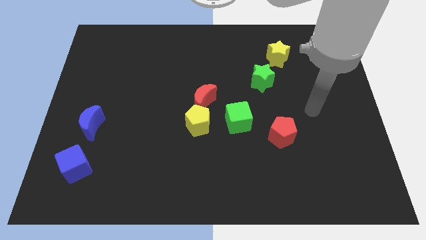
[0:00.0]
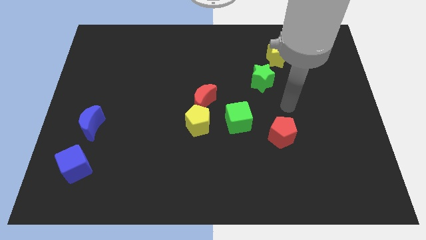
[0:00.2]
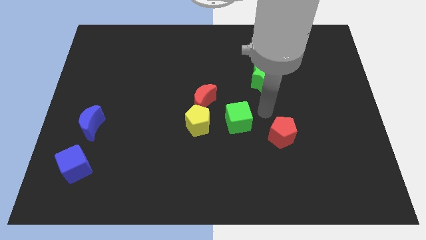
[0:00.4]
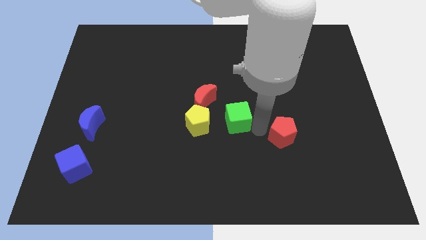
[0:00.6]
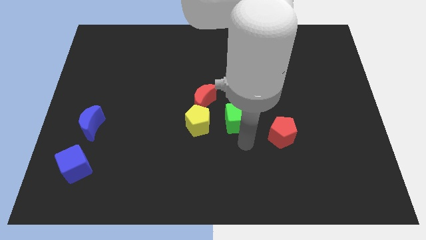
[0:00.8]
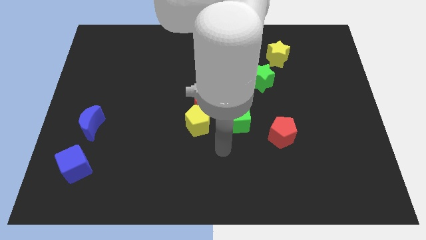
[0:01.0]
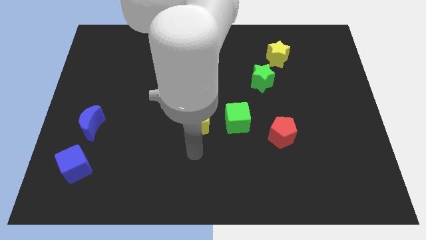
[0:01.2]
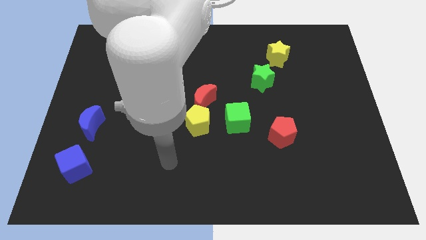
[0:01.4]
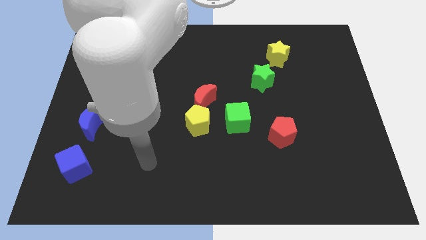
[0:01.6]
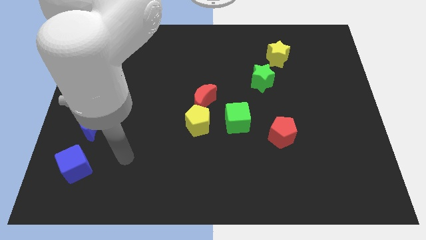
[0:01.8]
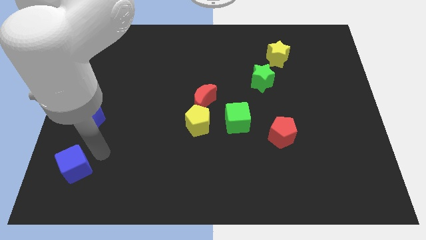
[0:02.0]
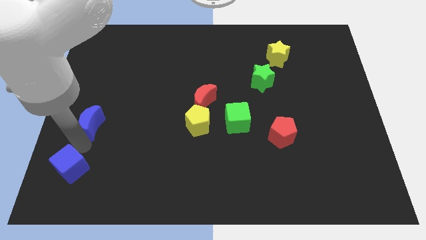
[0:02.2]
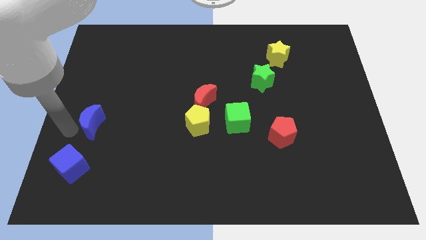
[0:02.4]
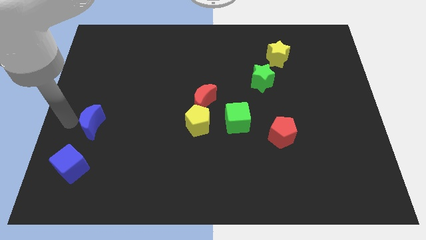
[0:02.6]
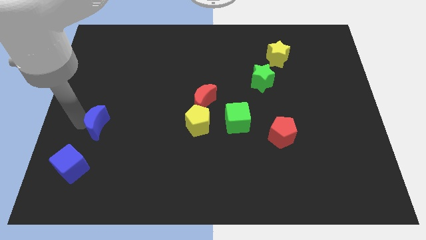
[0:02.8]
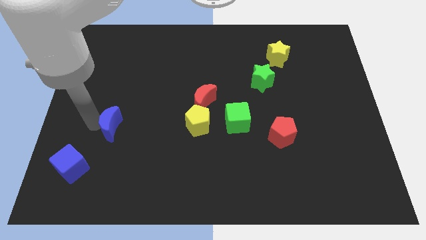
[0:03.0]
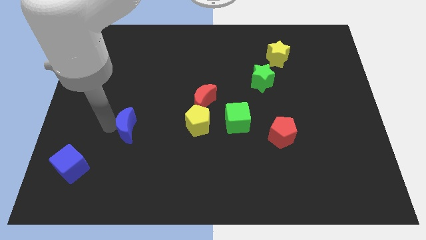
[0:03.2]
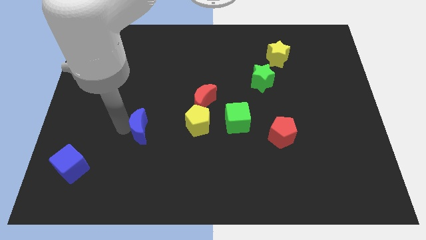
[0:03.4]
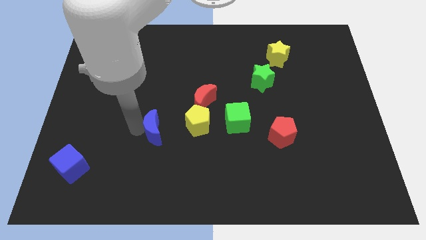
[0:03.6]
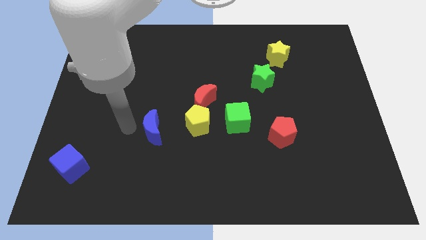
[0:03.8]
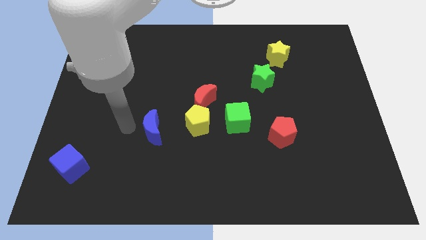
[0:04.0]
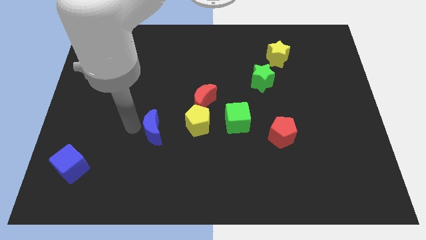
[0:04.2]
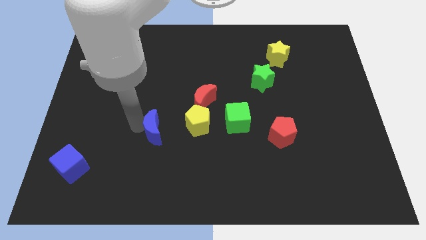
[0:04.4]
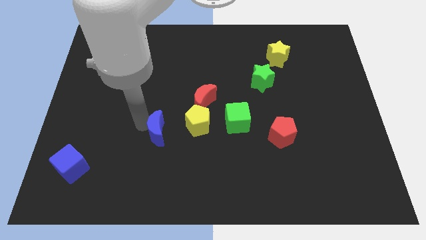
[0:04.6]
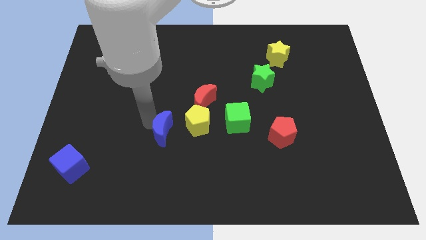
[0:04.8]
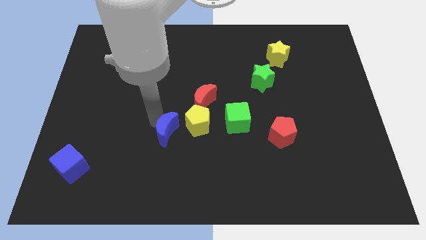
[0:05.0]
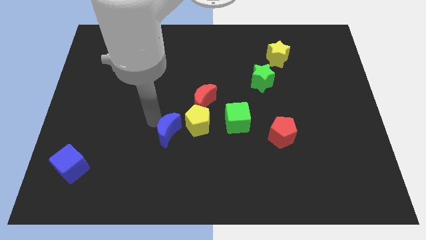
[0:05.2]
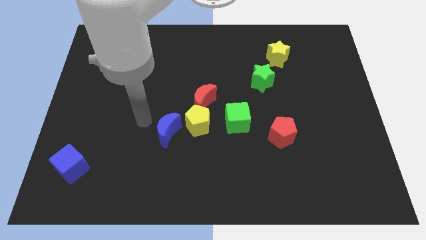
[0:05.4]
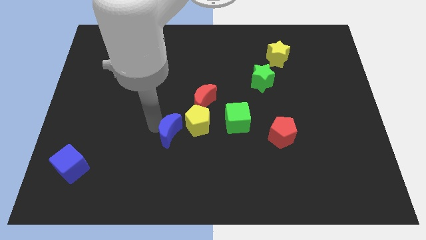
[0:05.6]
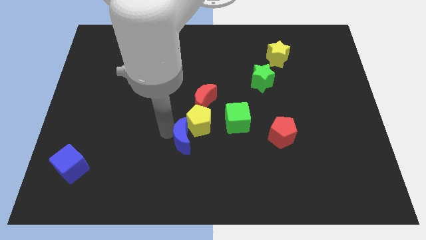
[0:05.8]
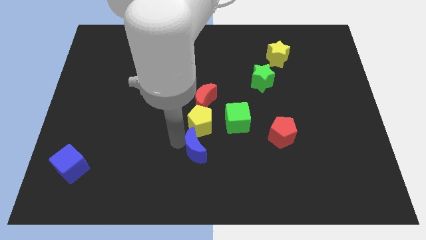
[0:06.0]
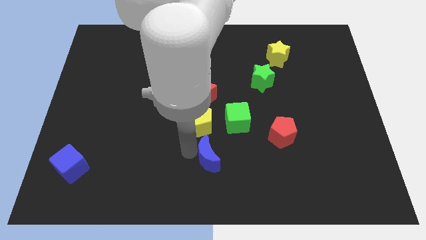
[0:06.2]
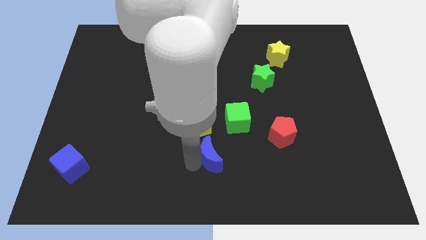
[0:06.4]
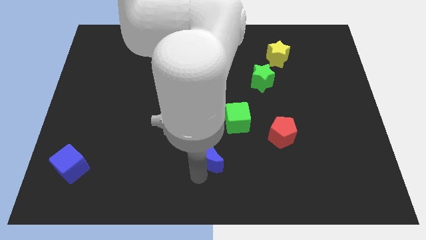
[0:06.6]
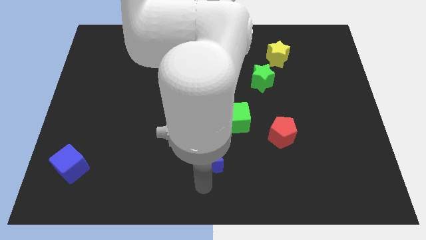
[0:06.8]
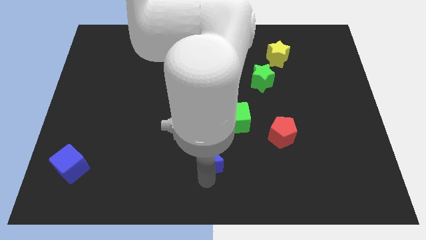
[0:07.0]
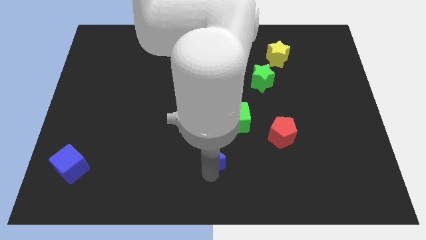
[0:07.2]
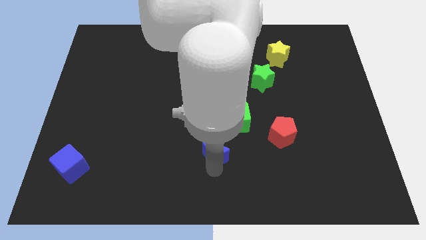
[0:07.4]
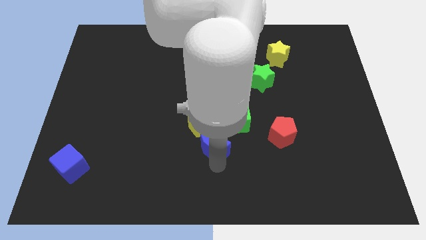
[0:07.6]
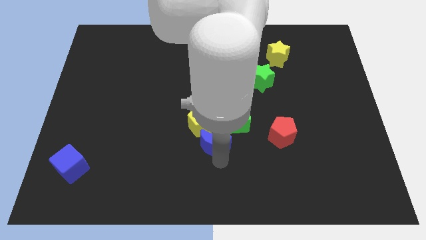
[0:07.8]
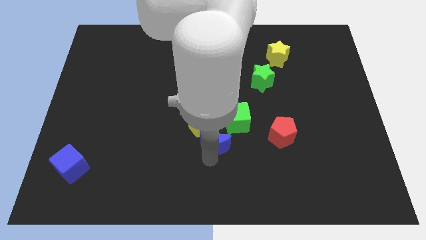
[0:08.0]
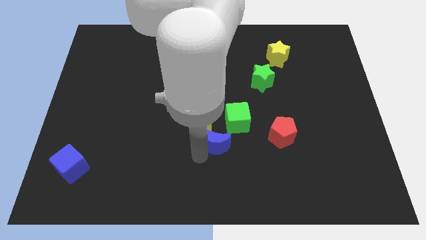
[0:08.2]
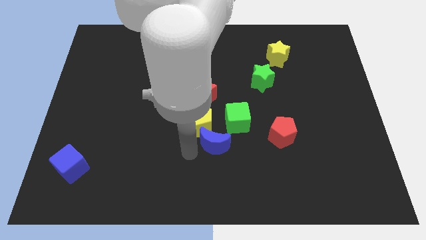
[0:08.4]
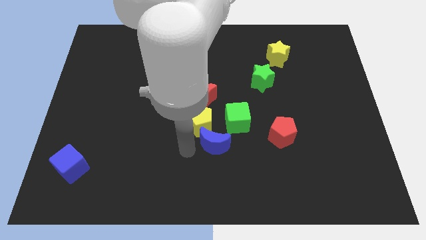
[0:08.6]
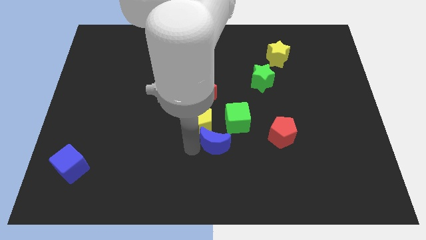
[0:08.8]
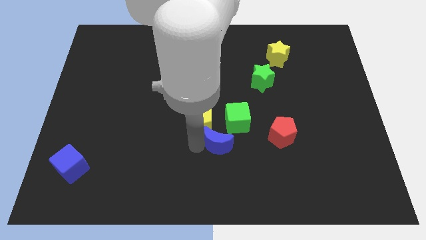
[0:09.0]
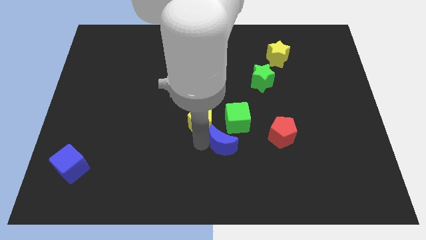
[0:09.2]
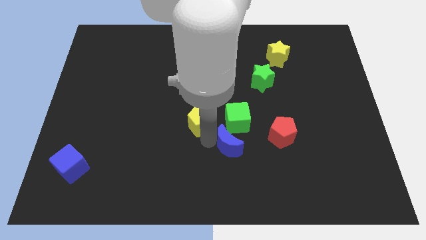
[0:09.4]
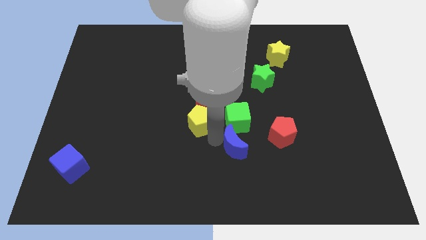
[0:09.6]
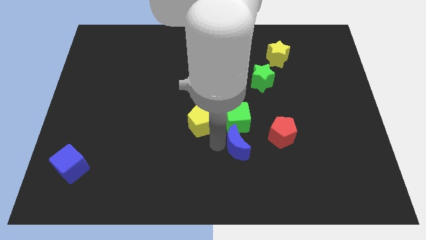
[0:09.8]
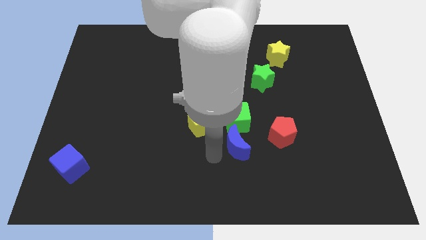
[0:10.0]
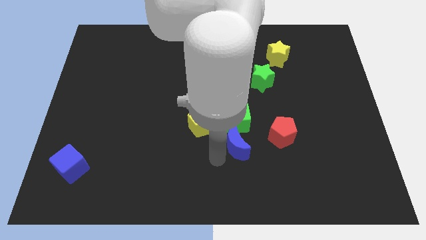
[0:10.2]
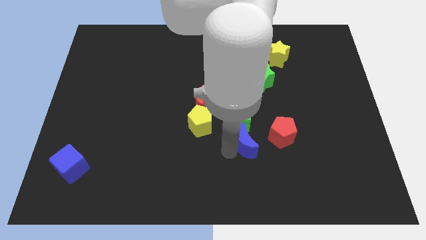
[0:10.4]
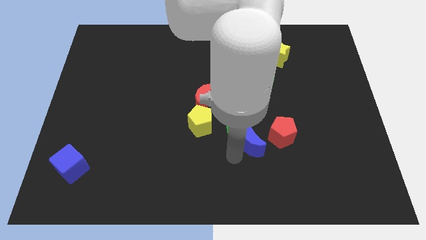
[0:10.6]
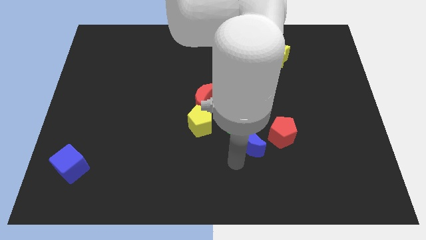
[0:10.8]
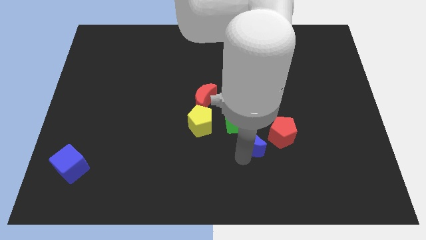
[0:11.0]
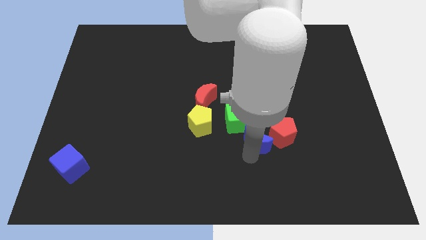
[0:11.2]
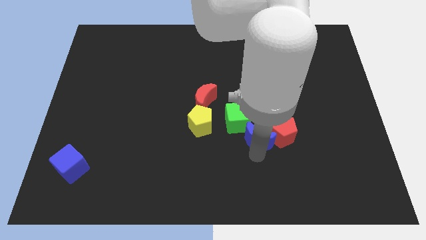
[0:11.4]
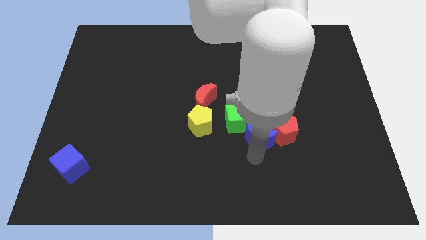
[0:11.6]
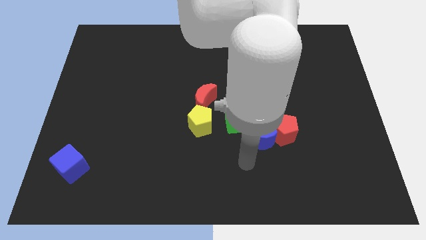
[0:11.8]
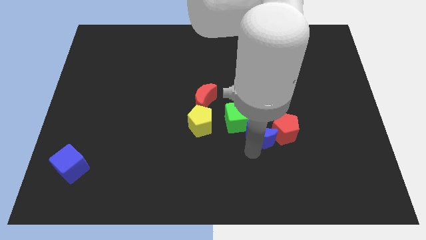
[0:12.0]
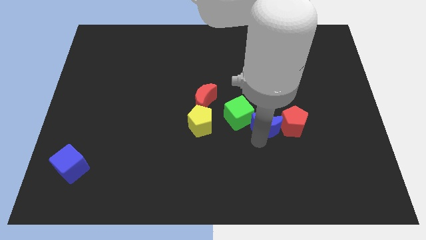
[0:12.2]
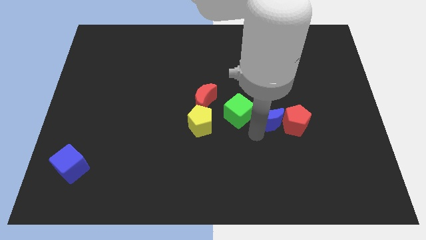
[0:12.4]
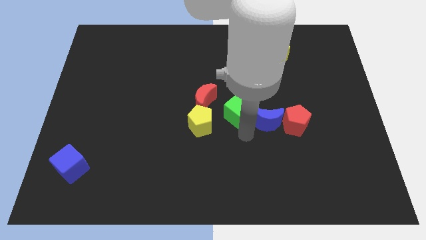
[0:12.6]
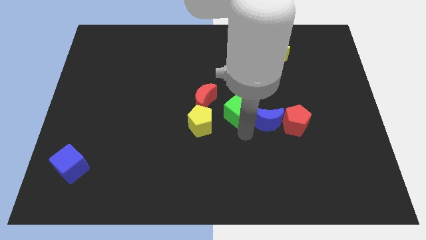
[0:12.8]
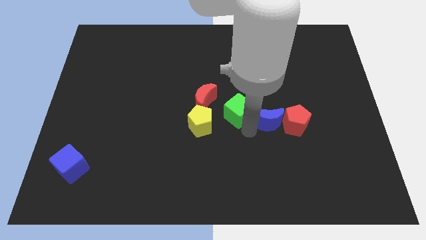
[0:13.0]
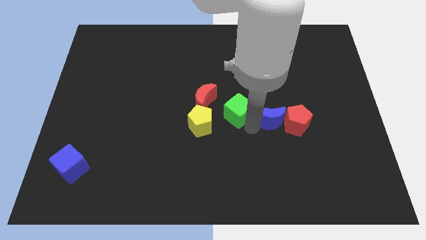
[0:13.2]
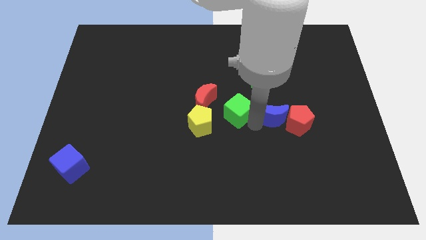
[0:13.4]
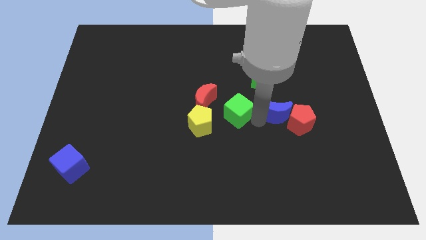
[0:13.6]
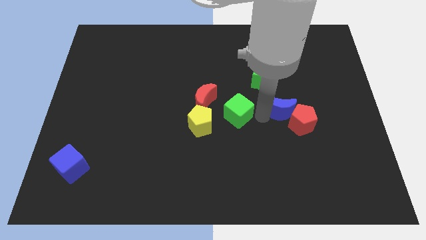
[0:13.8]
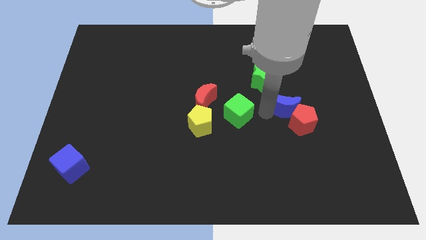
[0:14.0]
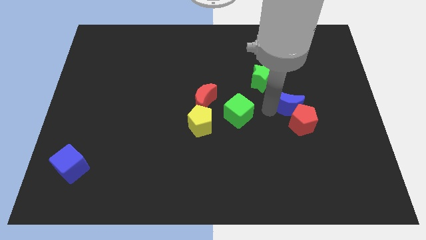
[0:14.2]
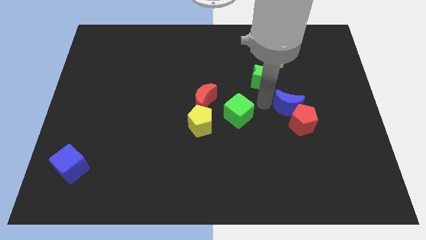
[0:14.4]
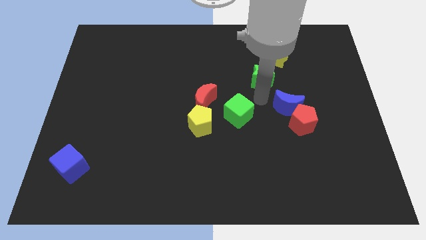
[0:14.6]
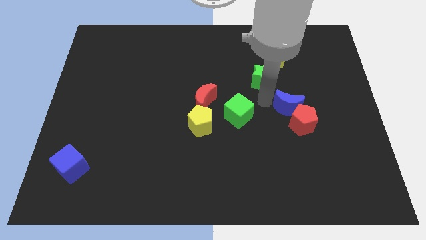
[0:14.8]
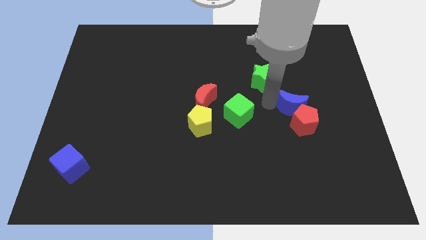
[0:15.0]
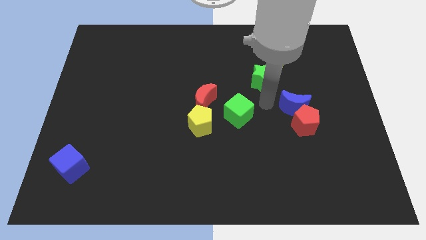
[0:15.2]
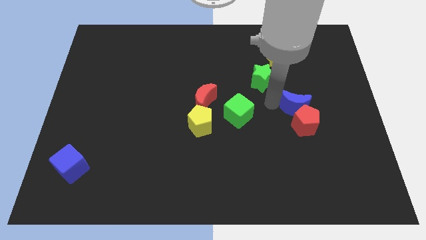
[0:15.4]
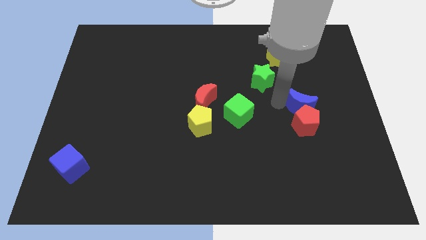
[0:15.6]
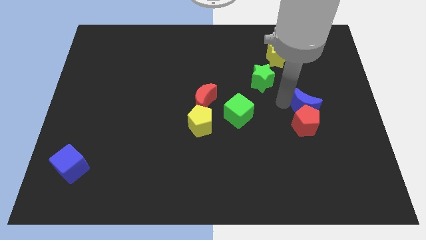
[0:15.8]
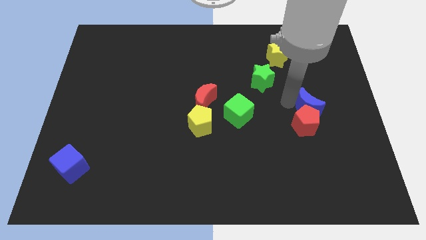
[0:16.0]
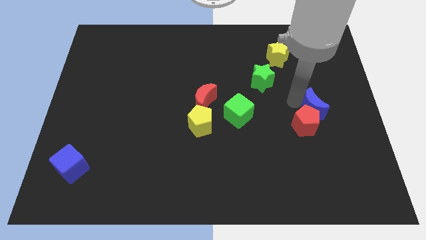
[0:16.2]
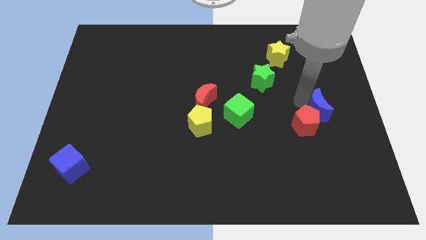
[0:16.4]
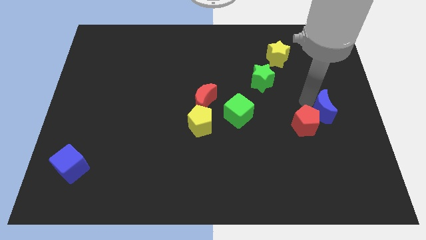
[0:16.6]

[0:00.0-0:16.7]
put the blue moon to the center right
